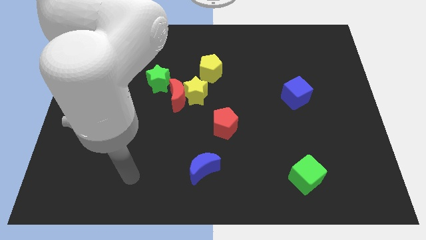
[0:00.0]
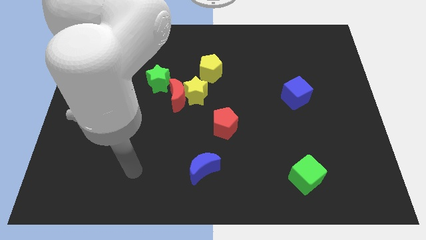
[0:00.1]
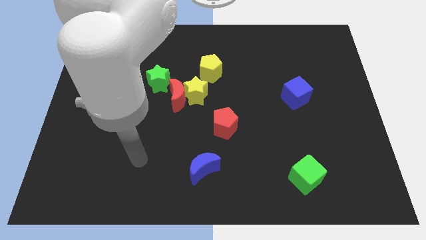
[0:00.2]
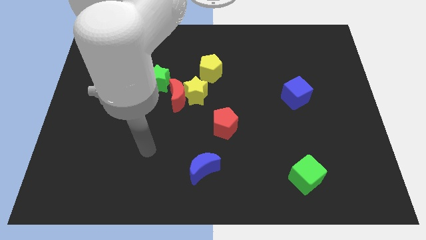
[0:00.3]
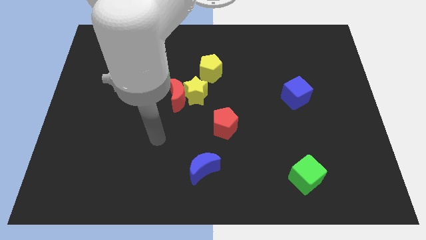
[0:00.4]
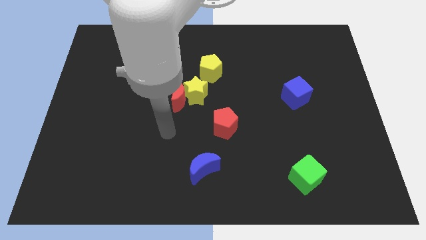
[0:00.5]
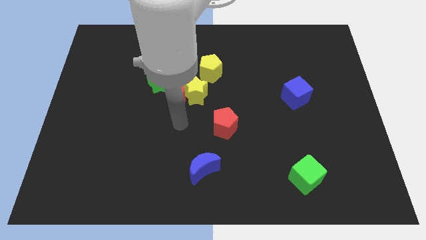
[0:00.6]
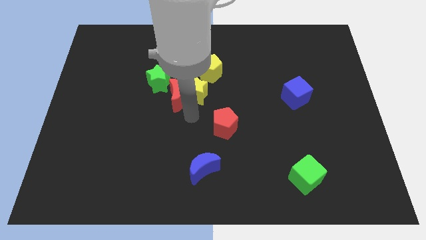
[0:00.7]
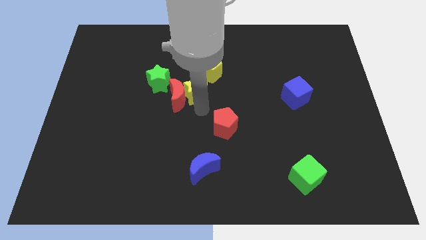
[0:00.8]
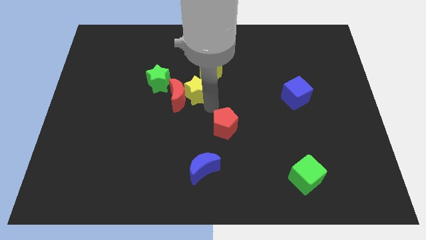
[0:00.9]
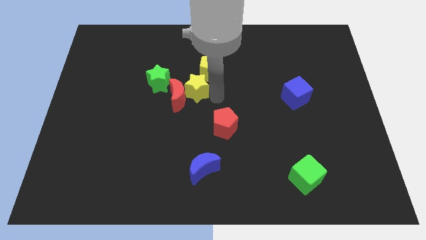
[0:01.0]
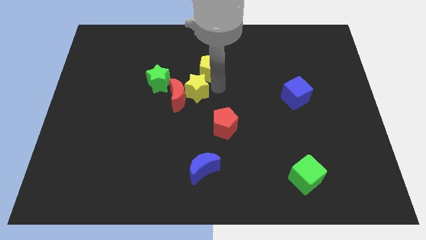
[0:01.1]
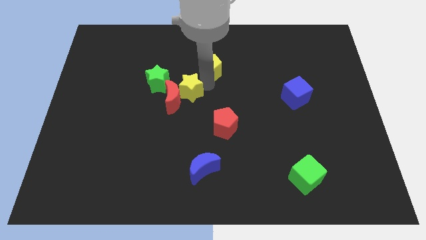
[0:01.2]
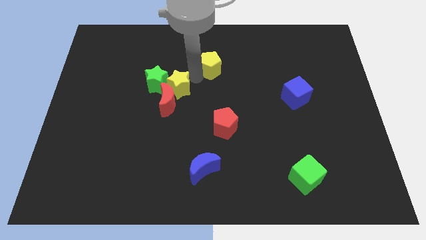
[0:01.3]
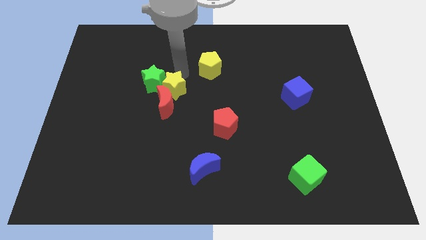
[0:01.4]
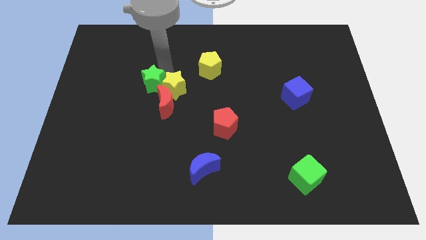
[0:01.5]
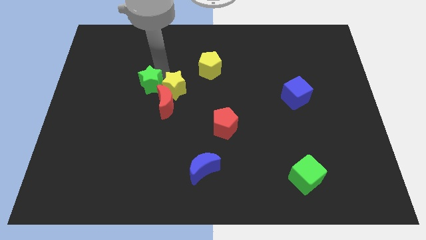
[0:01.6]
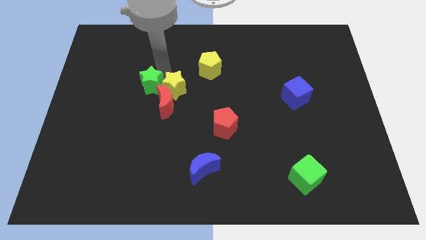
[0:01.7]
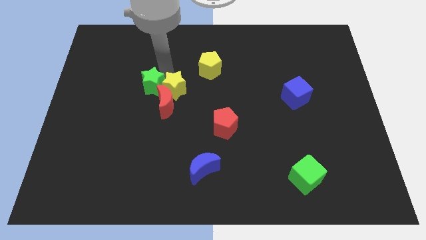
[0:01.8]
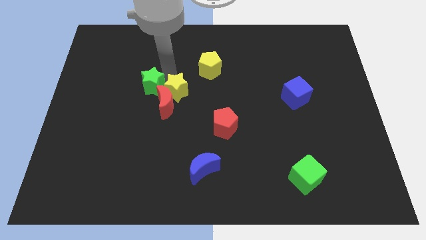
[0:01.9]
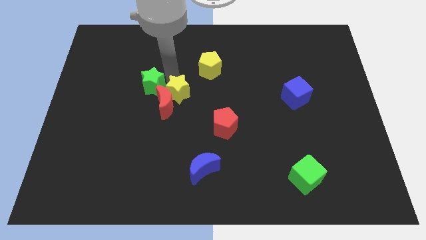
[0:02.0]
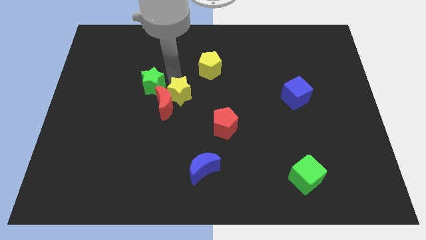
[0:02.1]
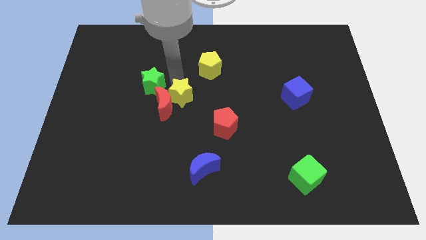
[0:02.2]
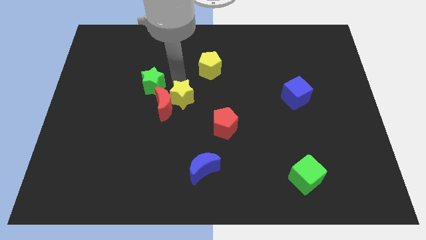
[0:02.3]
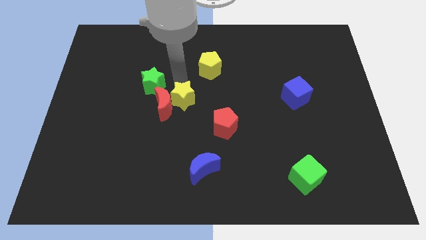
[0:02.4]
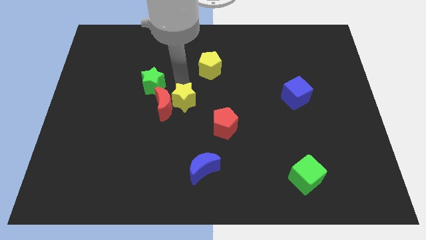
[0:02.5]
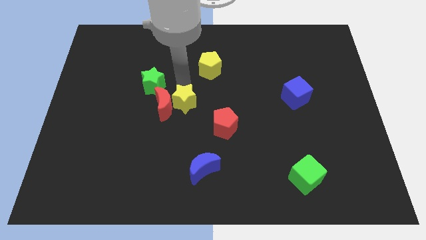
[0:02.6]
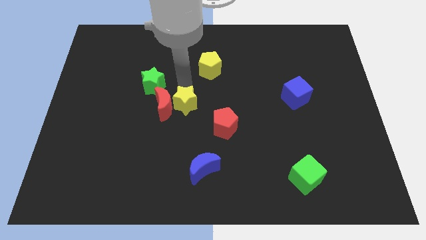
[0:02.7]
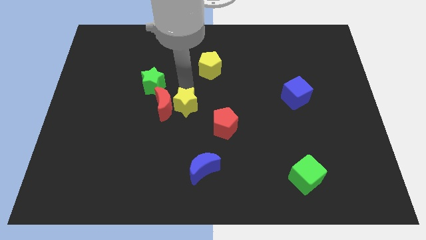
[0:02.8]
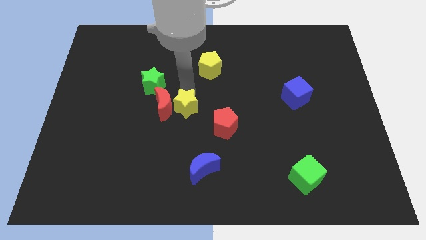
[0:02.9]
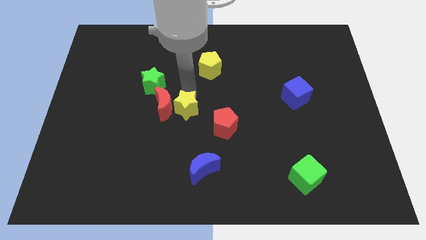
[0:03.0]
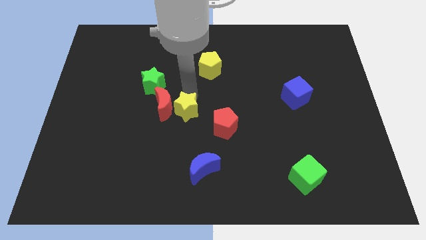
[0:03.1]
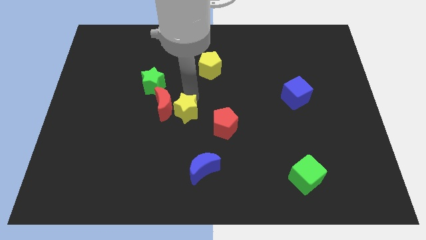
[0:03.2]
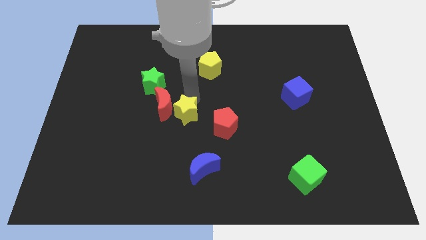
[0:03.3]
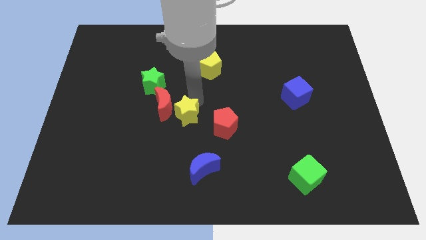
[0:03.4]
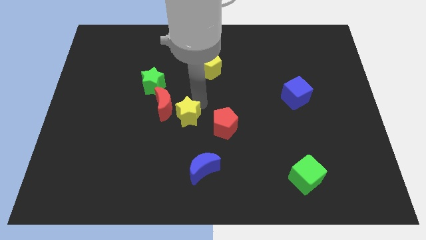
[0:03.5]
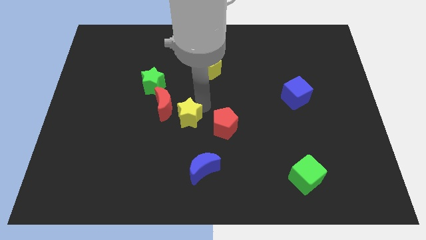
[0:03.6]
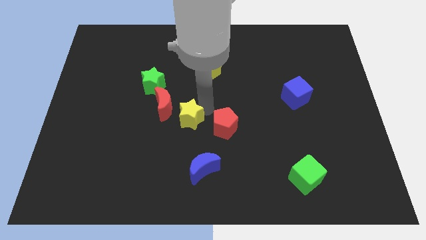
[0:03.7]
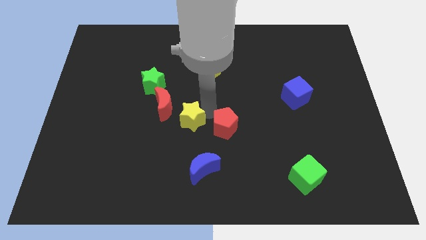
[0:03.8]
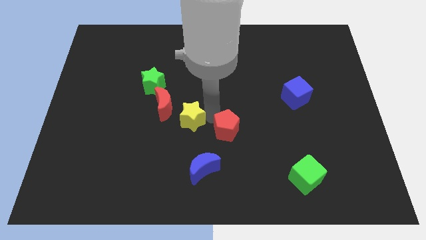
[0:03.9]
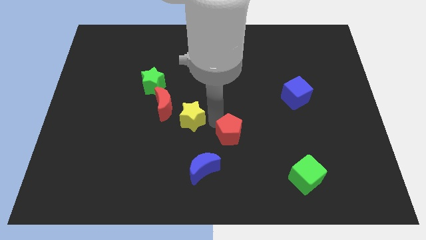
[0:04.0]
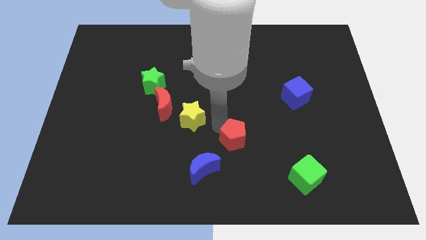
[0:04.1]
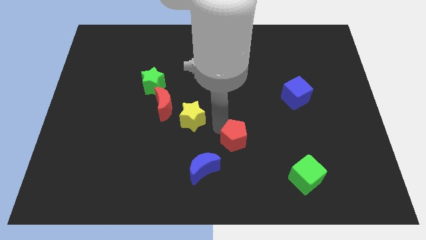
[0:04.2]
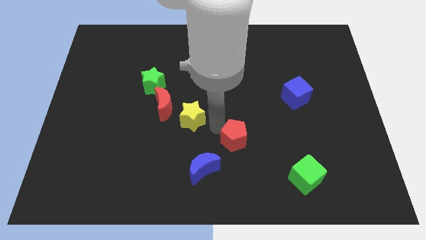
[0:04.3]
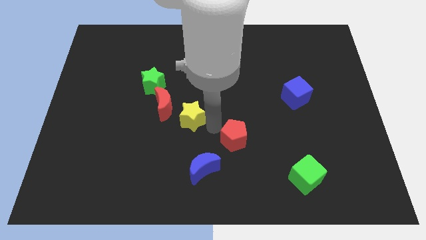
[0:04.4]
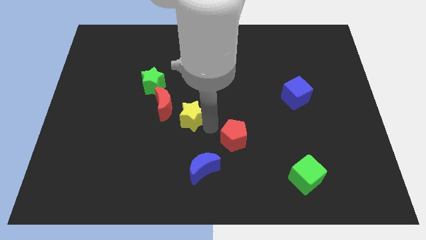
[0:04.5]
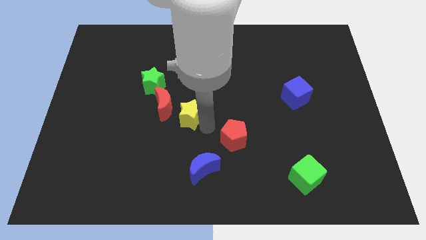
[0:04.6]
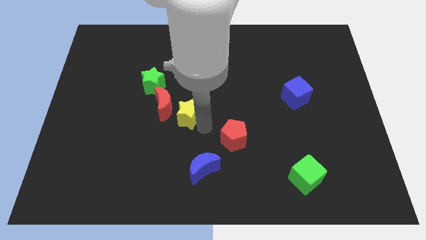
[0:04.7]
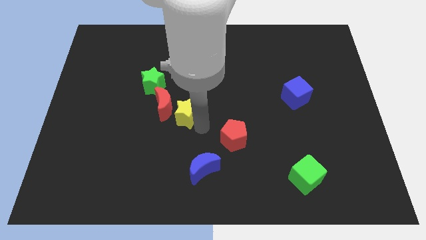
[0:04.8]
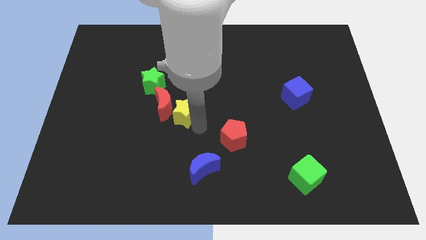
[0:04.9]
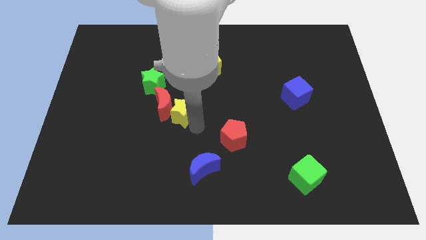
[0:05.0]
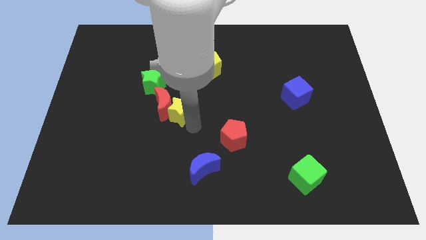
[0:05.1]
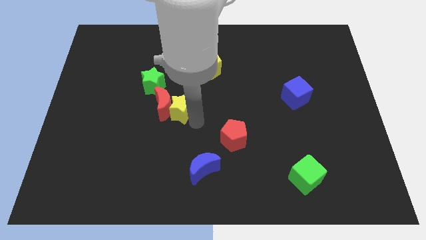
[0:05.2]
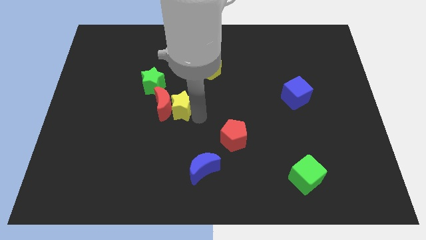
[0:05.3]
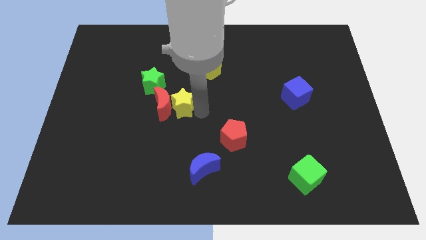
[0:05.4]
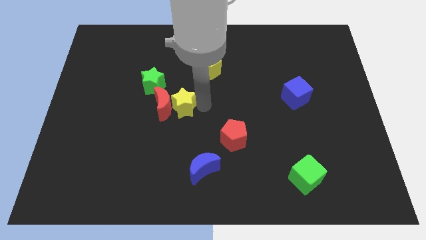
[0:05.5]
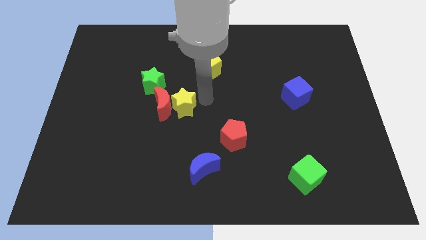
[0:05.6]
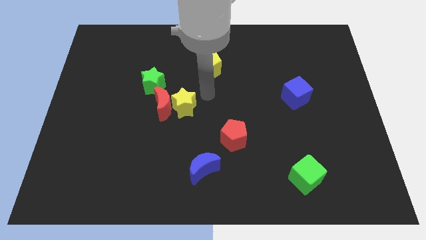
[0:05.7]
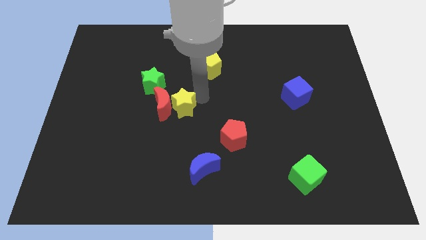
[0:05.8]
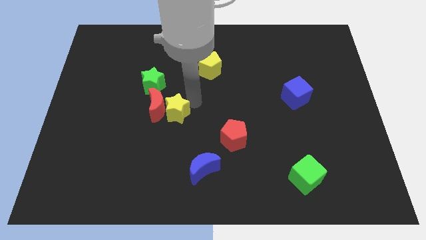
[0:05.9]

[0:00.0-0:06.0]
move the yellow star down and then to the left a little

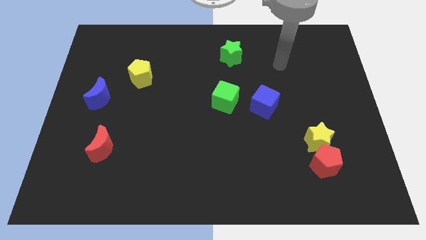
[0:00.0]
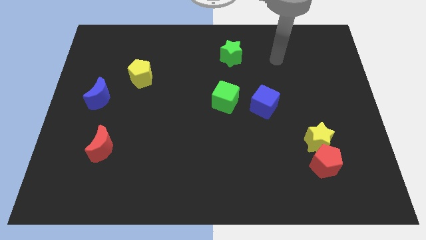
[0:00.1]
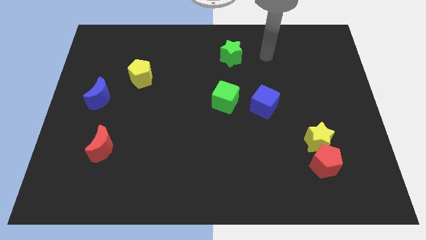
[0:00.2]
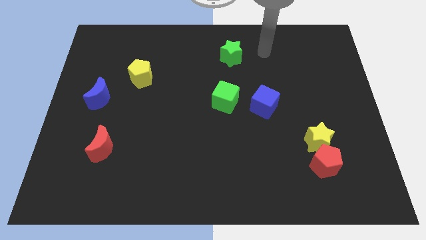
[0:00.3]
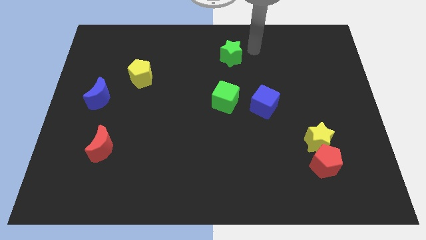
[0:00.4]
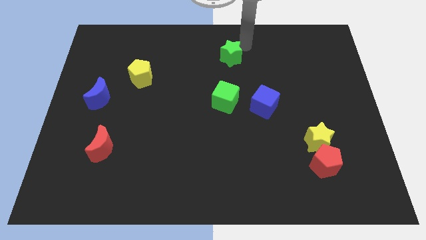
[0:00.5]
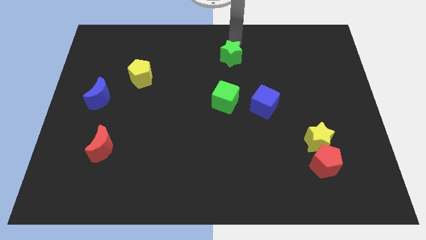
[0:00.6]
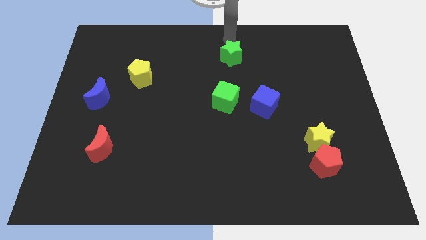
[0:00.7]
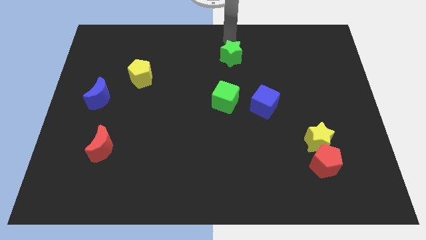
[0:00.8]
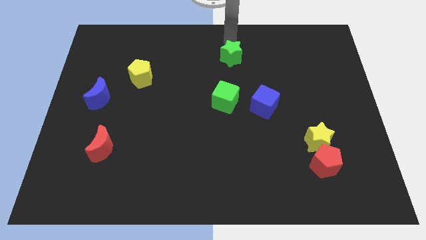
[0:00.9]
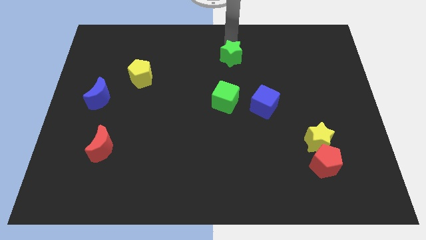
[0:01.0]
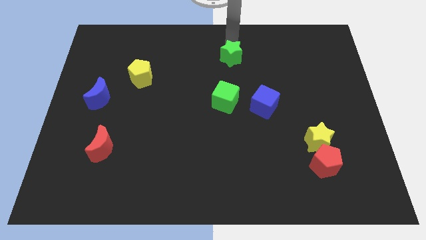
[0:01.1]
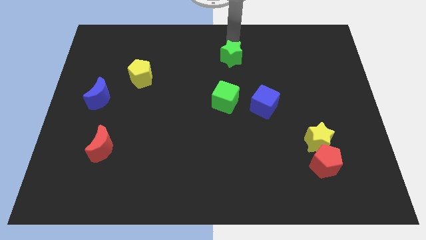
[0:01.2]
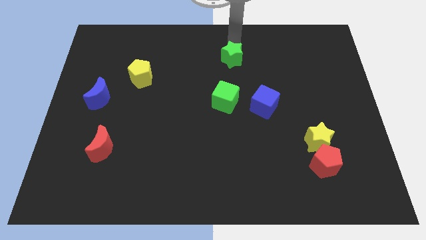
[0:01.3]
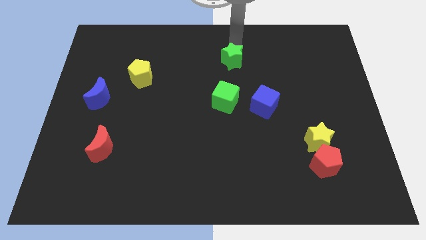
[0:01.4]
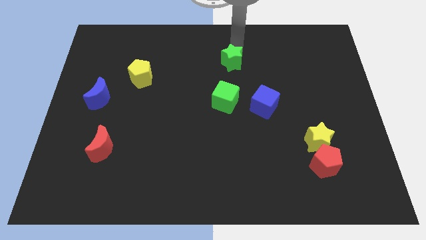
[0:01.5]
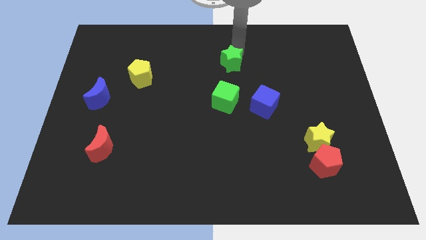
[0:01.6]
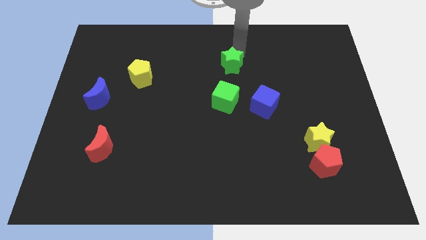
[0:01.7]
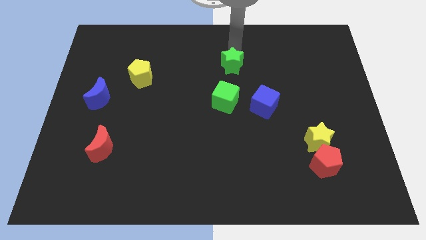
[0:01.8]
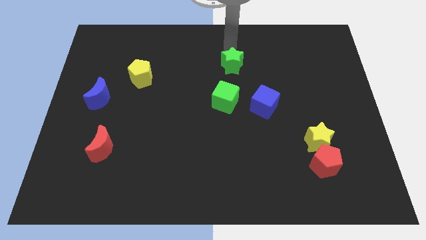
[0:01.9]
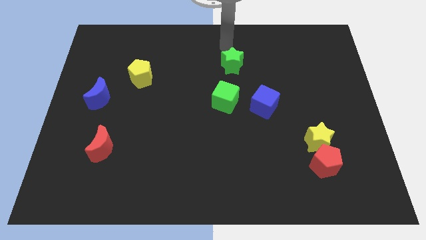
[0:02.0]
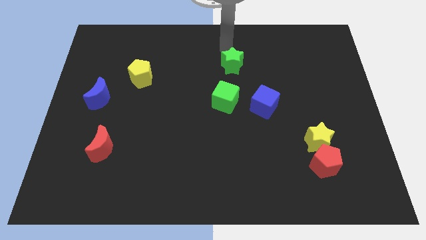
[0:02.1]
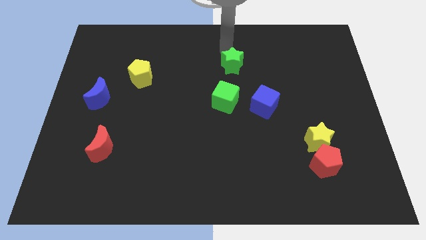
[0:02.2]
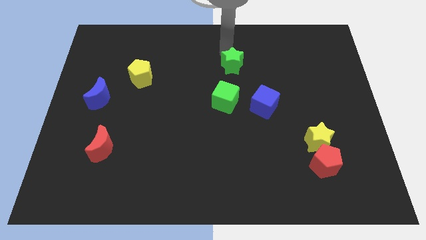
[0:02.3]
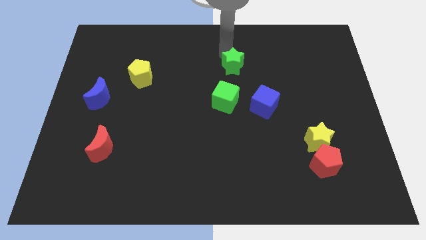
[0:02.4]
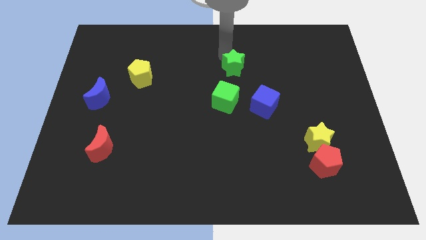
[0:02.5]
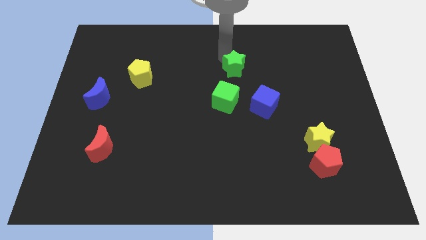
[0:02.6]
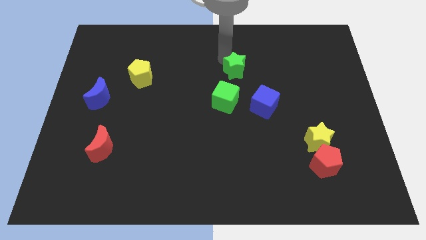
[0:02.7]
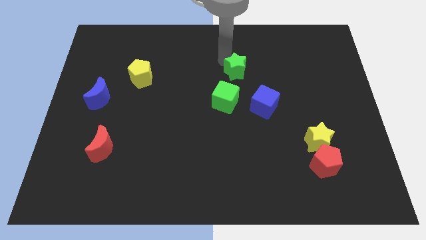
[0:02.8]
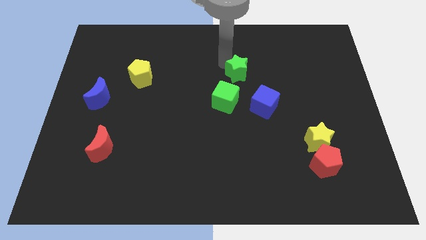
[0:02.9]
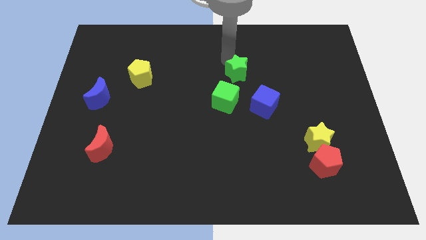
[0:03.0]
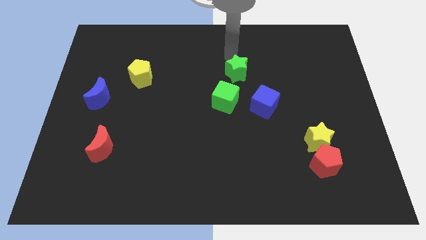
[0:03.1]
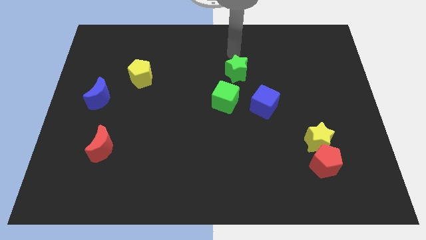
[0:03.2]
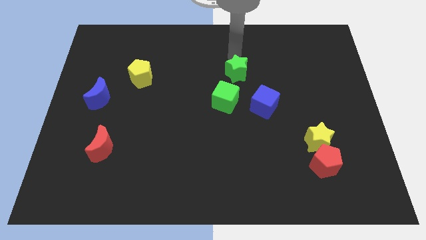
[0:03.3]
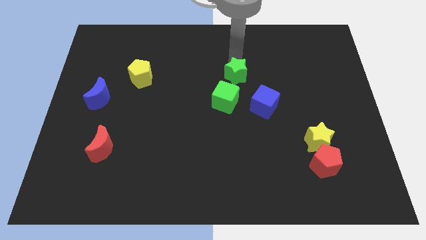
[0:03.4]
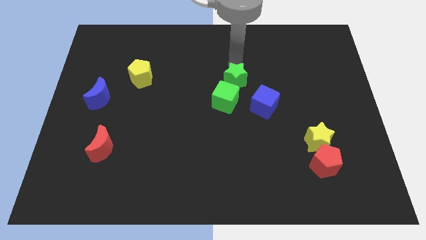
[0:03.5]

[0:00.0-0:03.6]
push the green star a bit down
